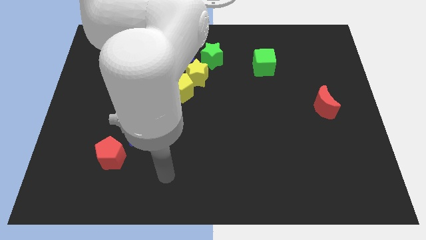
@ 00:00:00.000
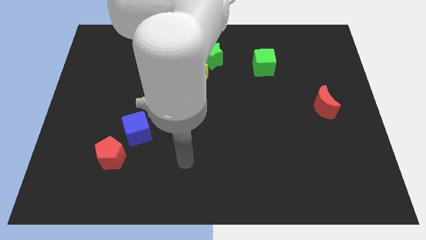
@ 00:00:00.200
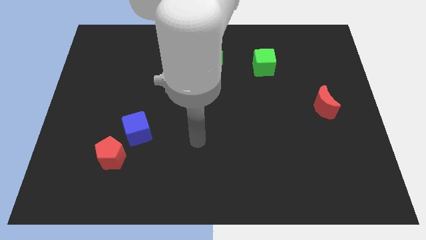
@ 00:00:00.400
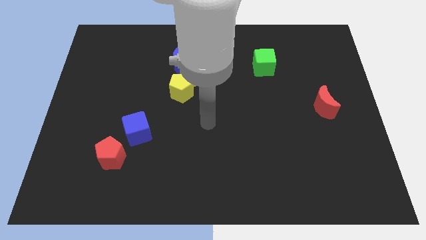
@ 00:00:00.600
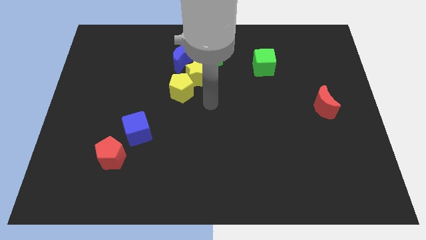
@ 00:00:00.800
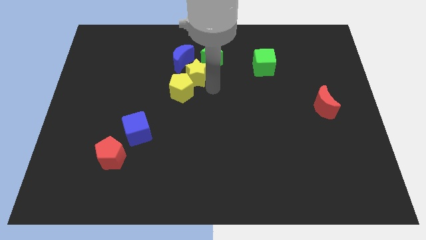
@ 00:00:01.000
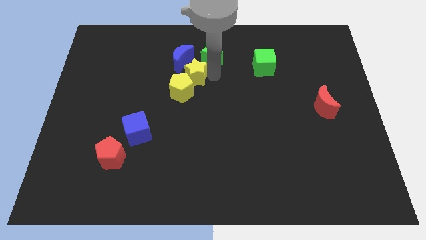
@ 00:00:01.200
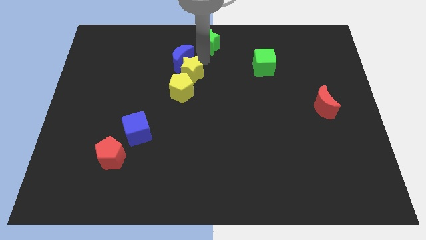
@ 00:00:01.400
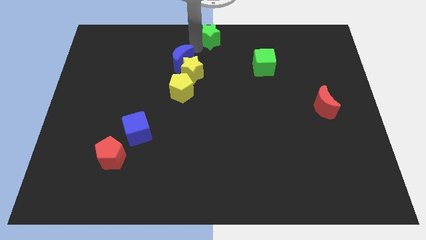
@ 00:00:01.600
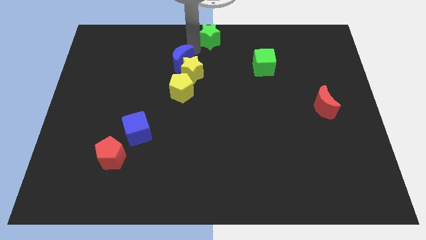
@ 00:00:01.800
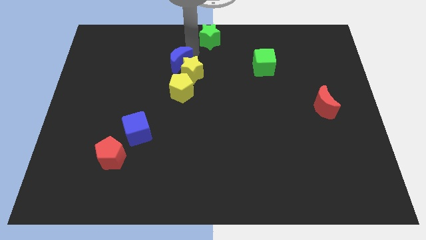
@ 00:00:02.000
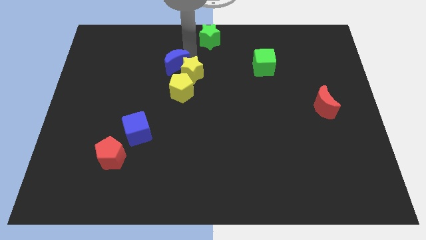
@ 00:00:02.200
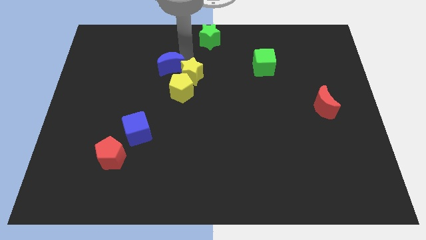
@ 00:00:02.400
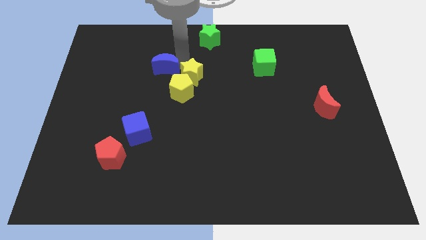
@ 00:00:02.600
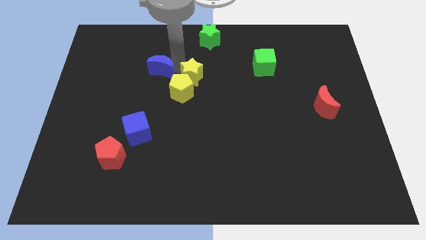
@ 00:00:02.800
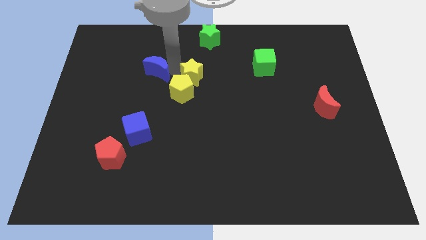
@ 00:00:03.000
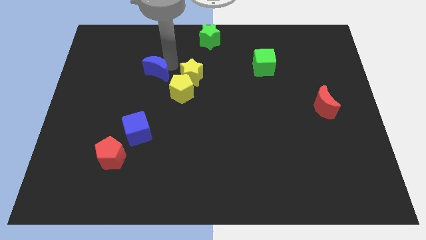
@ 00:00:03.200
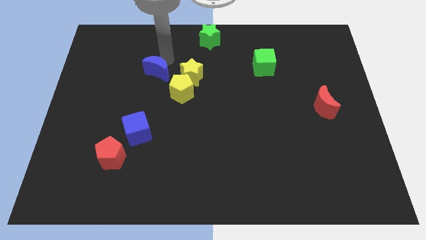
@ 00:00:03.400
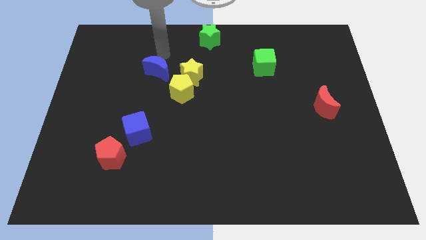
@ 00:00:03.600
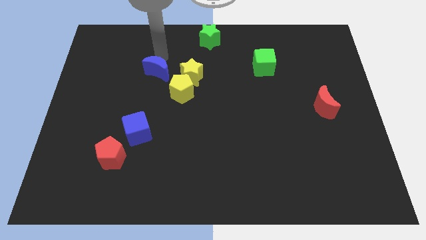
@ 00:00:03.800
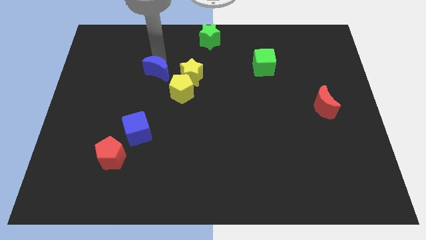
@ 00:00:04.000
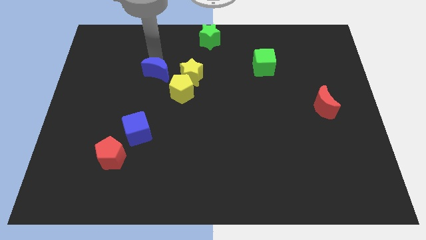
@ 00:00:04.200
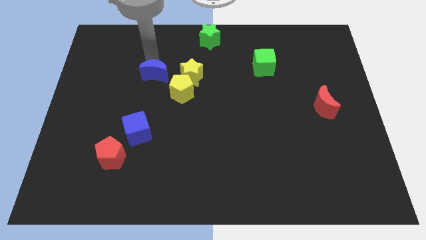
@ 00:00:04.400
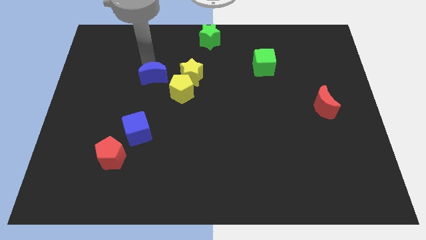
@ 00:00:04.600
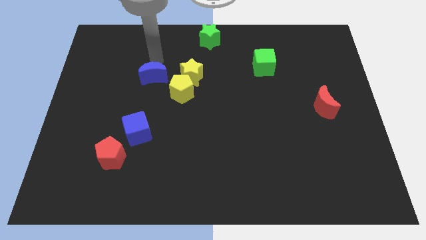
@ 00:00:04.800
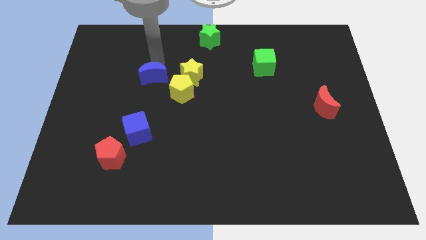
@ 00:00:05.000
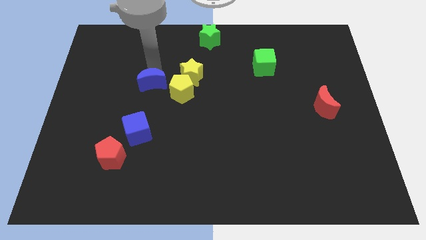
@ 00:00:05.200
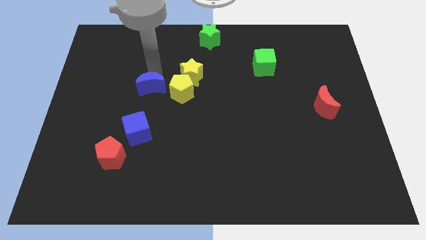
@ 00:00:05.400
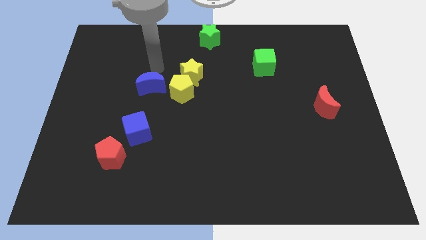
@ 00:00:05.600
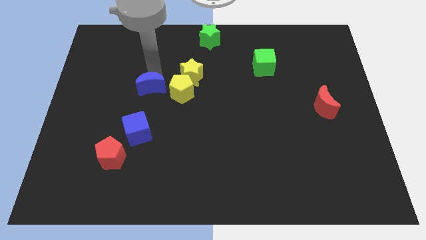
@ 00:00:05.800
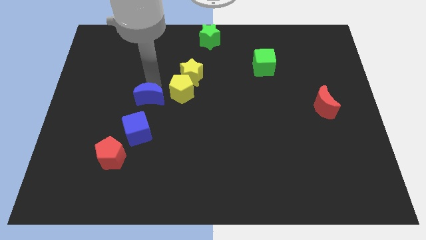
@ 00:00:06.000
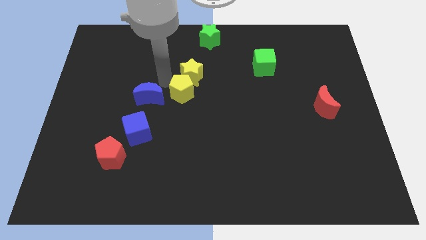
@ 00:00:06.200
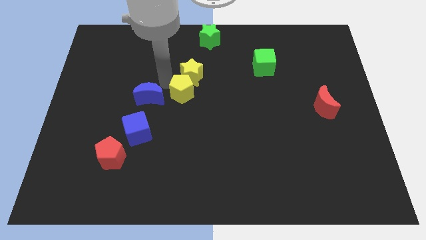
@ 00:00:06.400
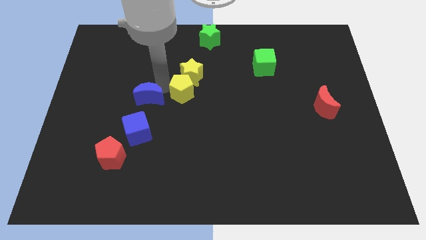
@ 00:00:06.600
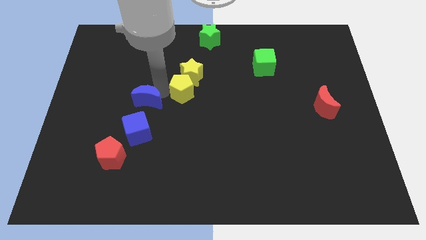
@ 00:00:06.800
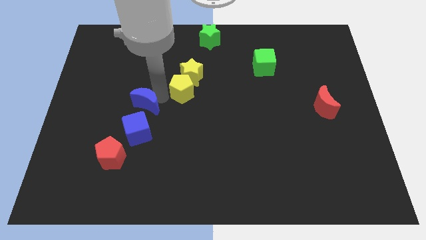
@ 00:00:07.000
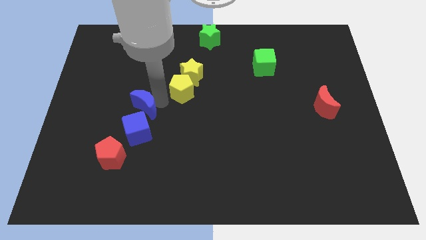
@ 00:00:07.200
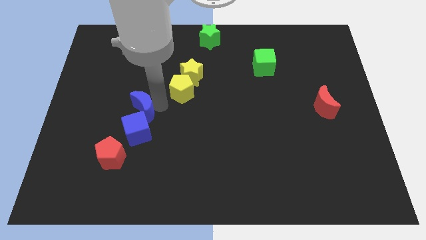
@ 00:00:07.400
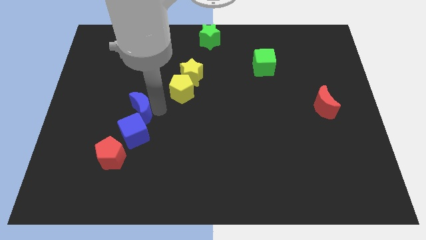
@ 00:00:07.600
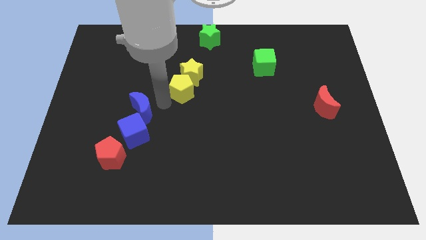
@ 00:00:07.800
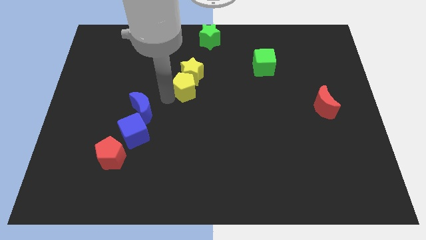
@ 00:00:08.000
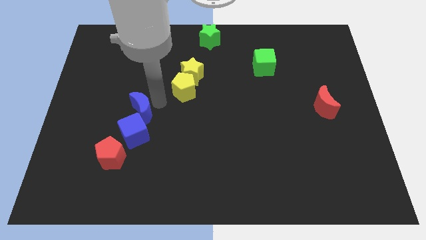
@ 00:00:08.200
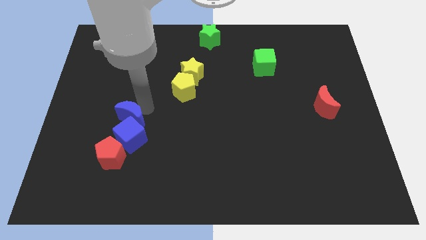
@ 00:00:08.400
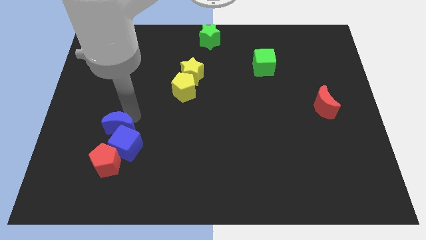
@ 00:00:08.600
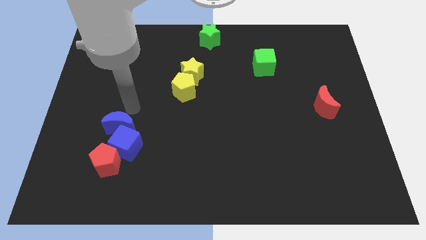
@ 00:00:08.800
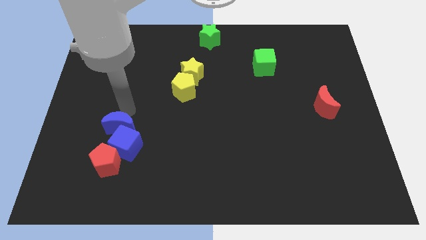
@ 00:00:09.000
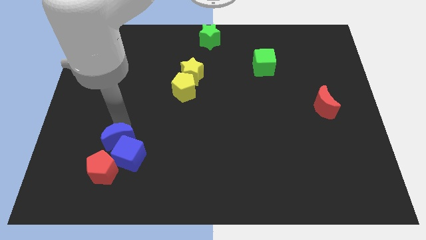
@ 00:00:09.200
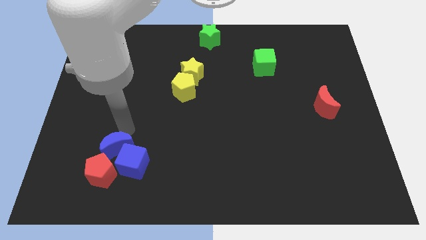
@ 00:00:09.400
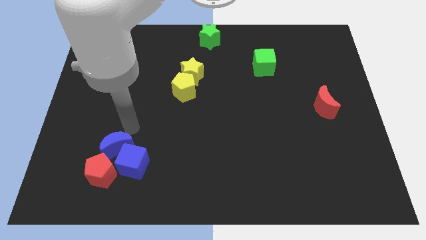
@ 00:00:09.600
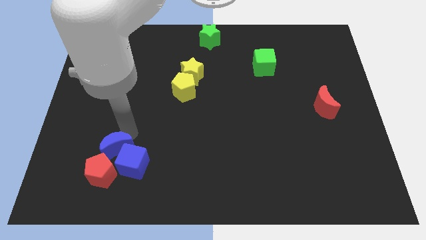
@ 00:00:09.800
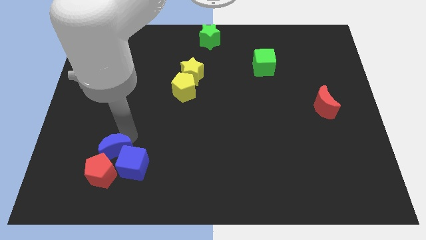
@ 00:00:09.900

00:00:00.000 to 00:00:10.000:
move the blue moon towards the red pentagon

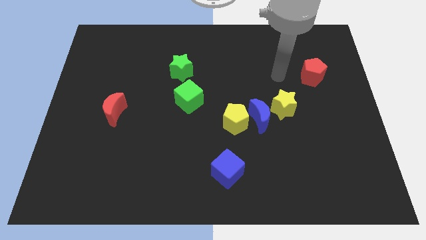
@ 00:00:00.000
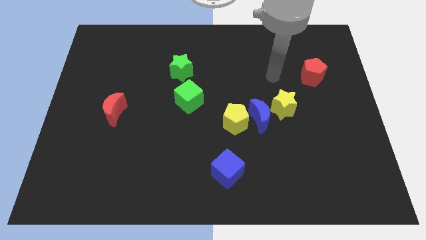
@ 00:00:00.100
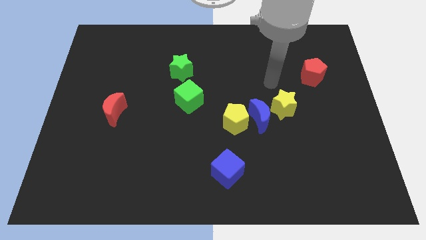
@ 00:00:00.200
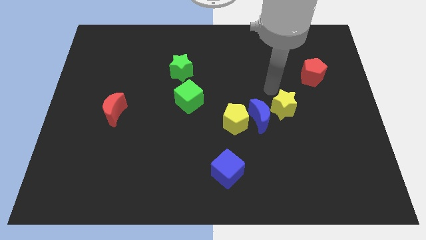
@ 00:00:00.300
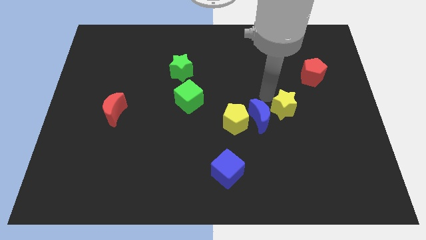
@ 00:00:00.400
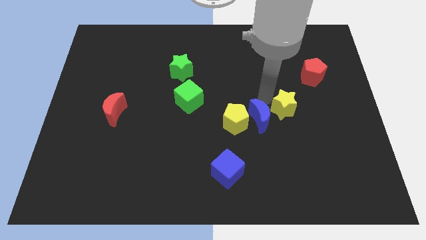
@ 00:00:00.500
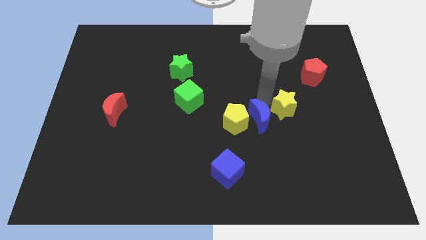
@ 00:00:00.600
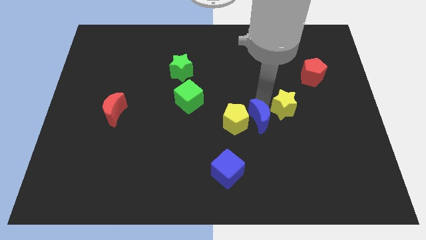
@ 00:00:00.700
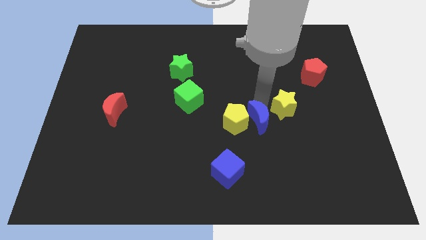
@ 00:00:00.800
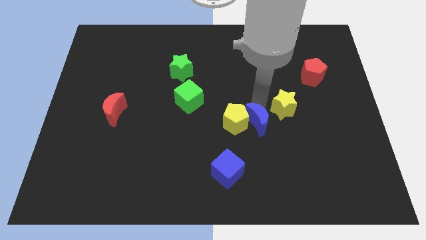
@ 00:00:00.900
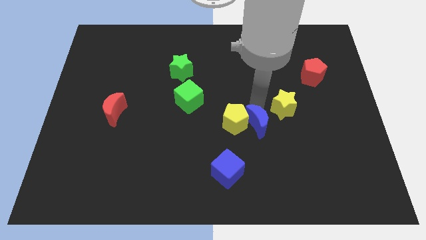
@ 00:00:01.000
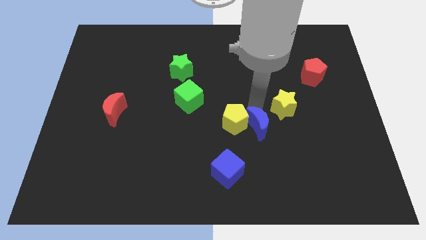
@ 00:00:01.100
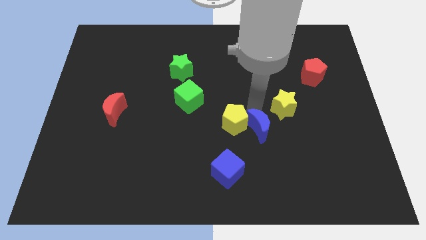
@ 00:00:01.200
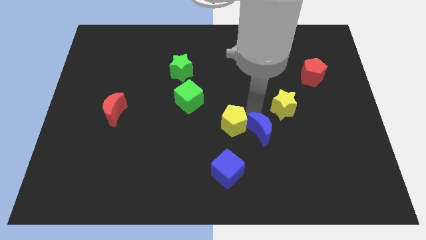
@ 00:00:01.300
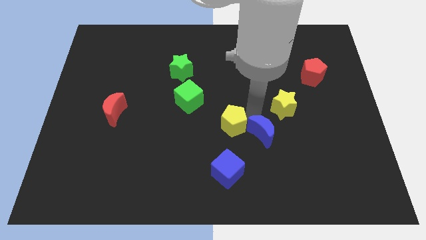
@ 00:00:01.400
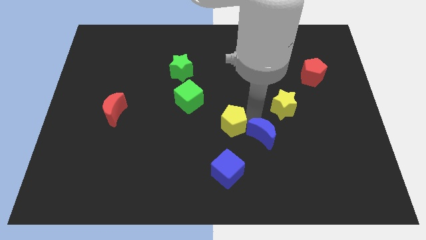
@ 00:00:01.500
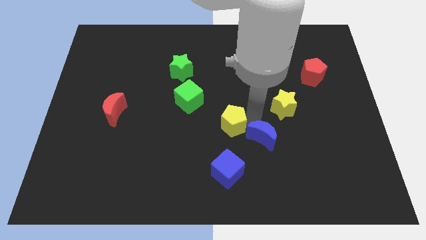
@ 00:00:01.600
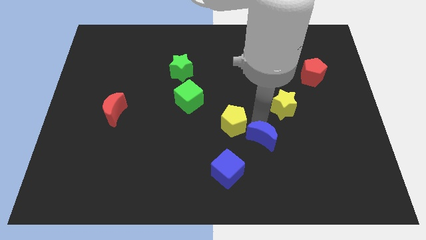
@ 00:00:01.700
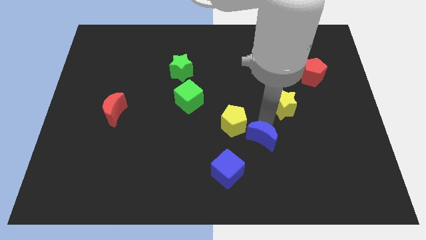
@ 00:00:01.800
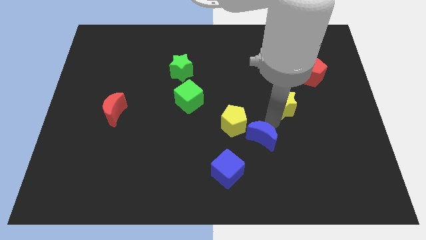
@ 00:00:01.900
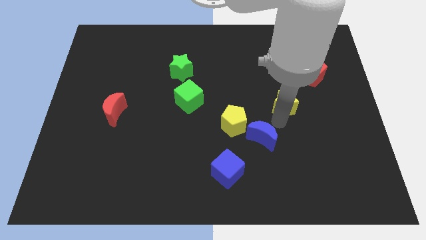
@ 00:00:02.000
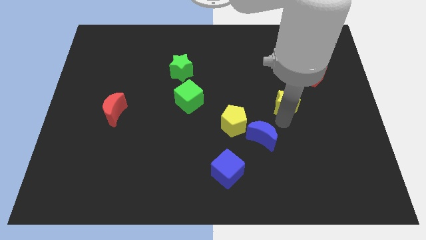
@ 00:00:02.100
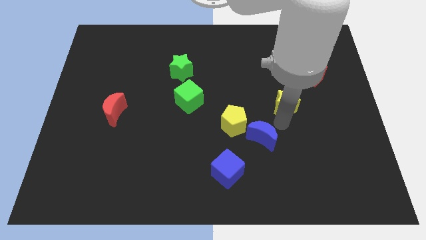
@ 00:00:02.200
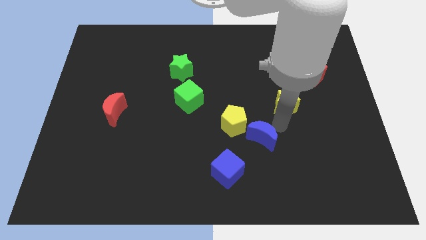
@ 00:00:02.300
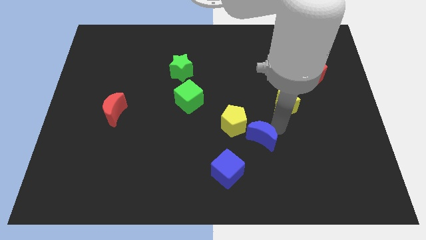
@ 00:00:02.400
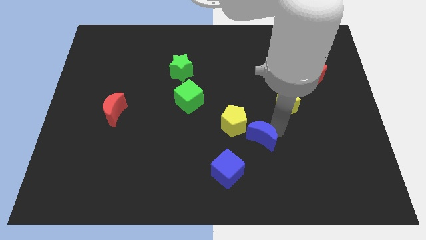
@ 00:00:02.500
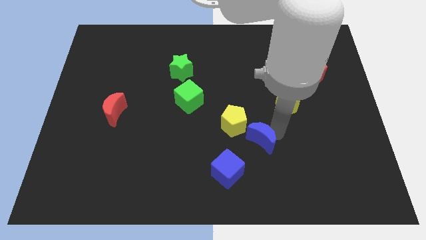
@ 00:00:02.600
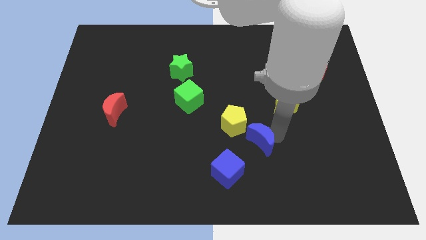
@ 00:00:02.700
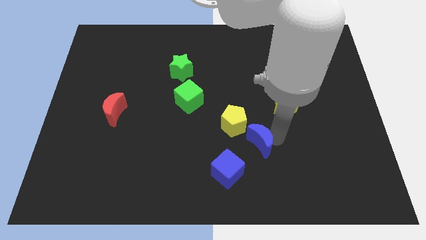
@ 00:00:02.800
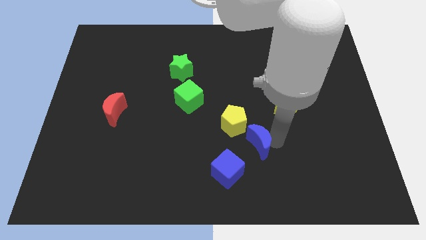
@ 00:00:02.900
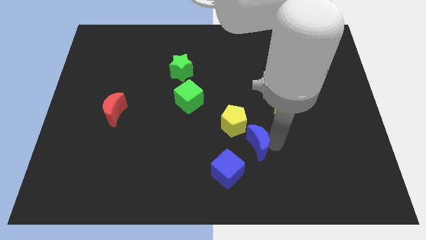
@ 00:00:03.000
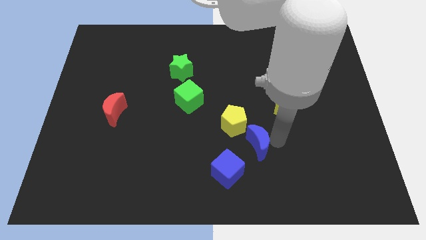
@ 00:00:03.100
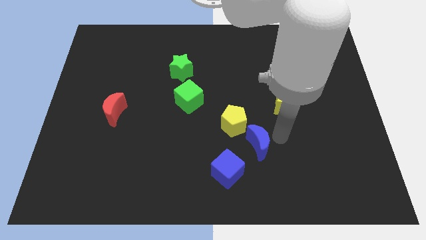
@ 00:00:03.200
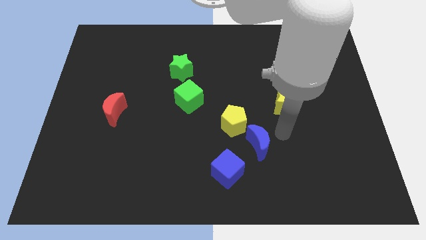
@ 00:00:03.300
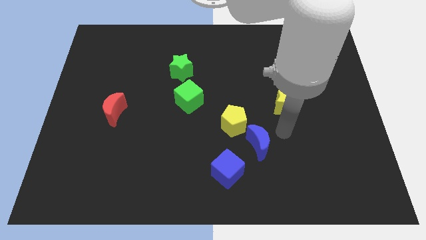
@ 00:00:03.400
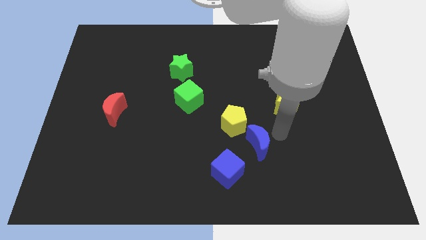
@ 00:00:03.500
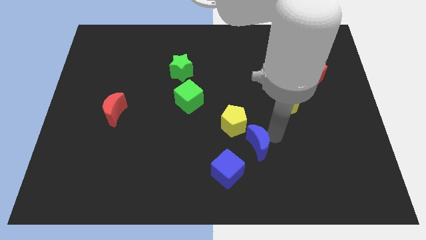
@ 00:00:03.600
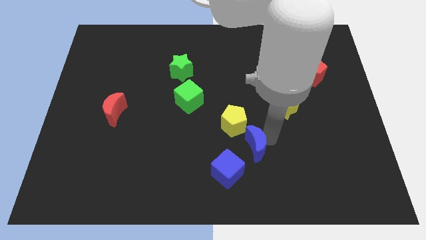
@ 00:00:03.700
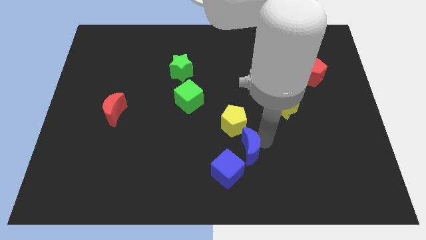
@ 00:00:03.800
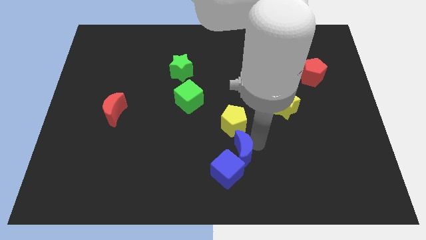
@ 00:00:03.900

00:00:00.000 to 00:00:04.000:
slide the blue moon towards the blue cube
